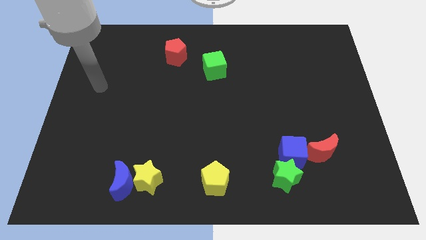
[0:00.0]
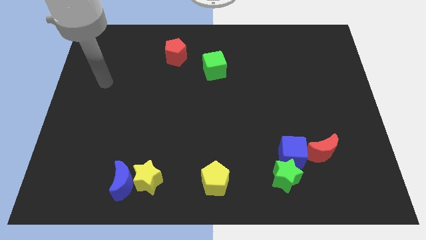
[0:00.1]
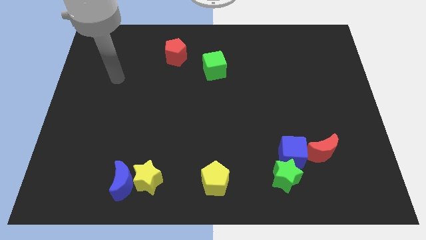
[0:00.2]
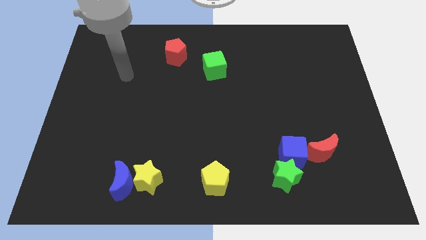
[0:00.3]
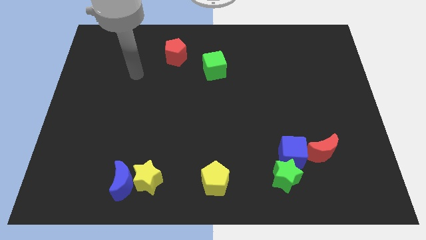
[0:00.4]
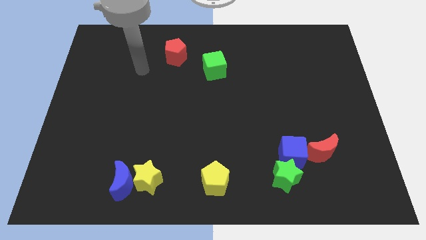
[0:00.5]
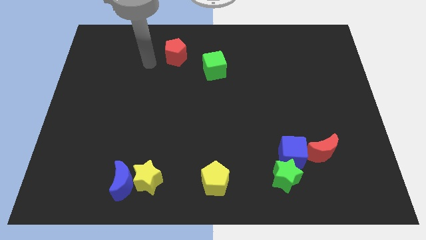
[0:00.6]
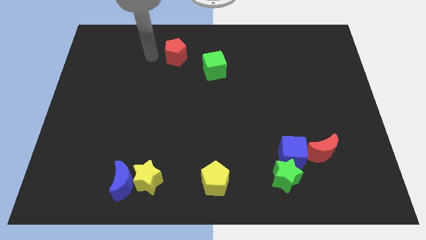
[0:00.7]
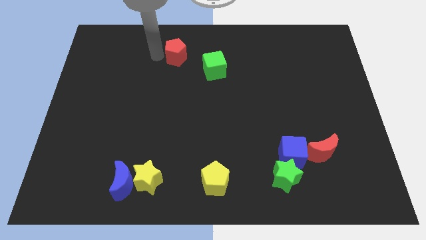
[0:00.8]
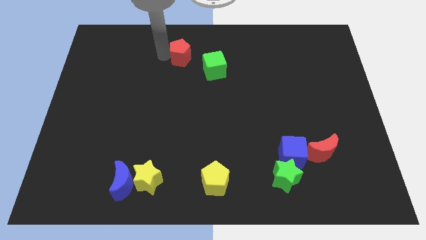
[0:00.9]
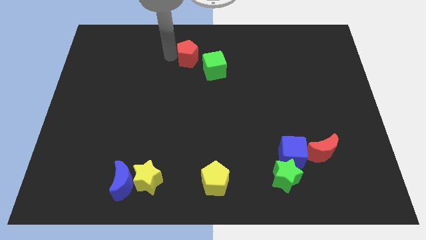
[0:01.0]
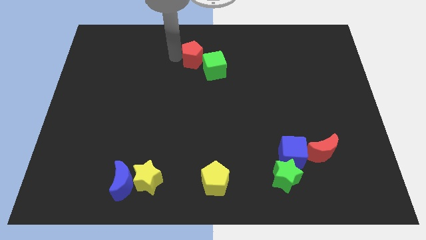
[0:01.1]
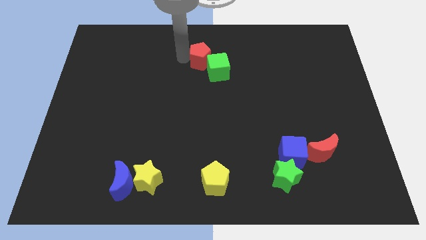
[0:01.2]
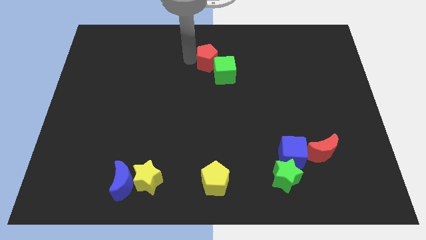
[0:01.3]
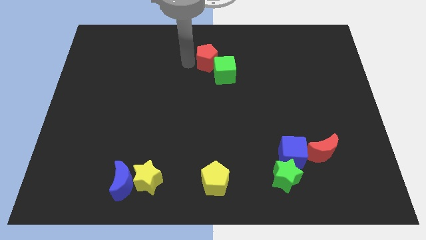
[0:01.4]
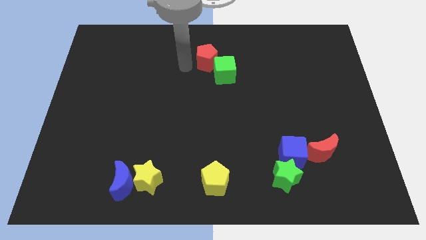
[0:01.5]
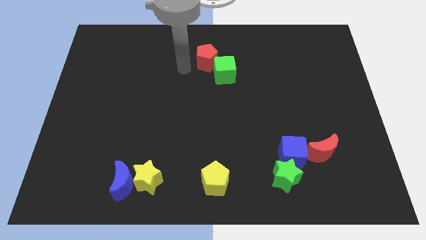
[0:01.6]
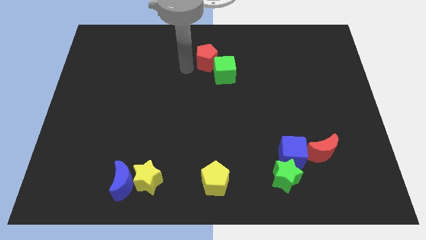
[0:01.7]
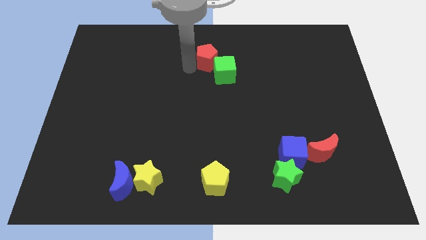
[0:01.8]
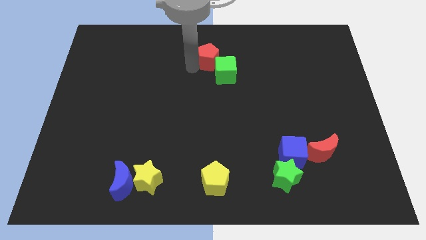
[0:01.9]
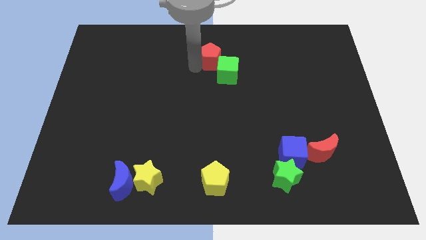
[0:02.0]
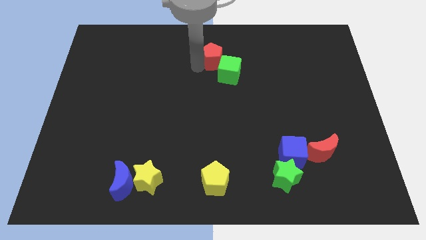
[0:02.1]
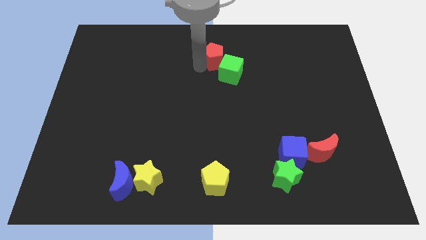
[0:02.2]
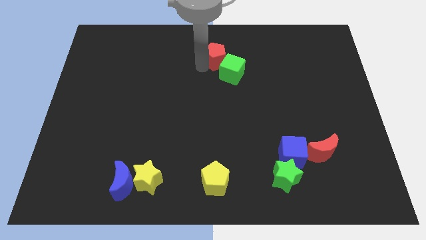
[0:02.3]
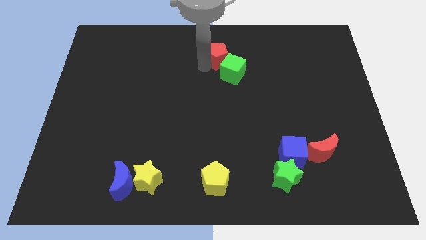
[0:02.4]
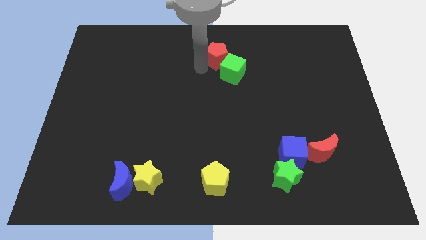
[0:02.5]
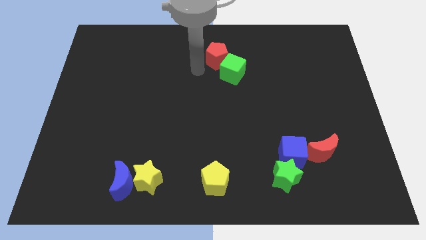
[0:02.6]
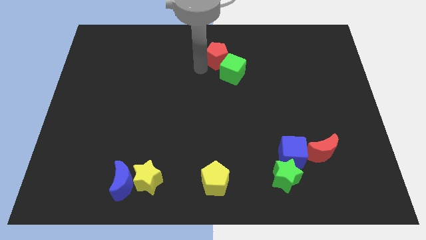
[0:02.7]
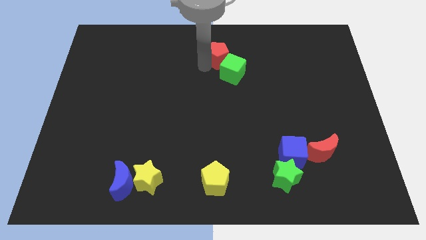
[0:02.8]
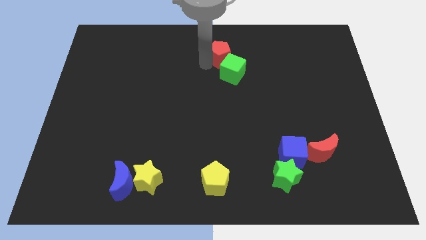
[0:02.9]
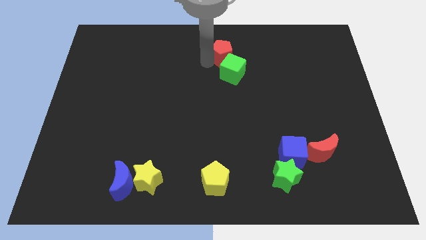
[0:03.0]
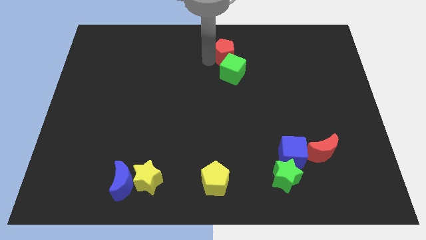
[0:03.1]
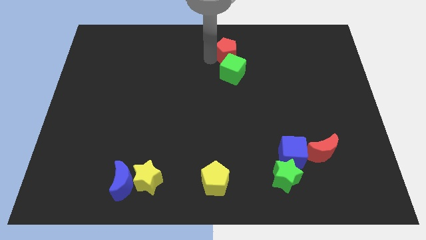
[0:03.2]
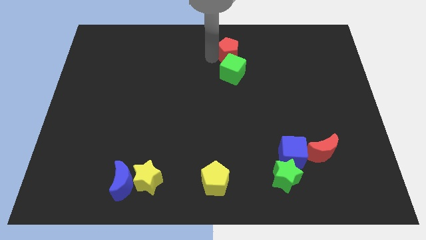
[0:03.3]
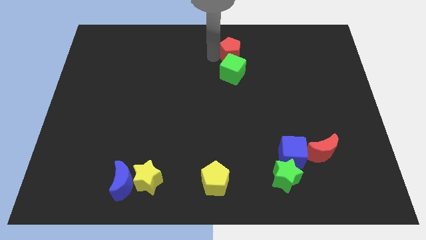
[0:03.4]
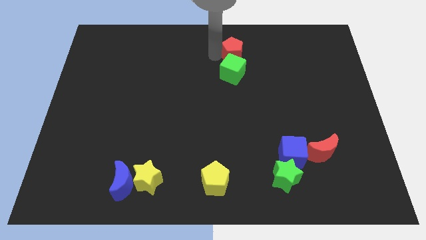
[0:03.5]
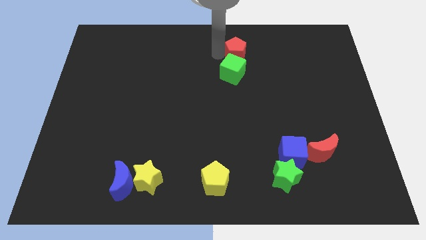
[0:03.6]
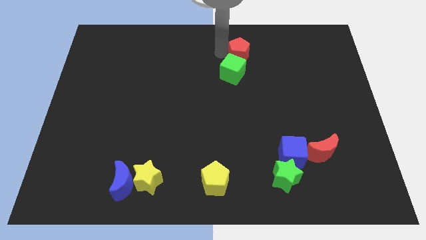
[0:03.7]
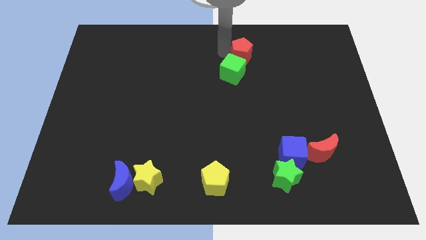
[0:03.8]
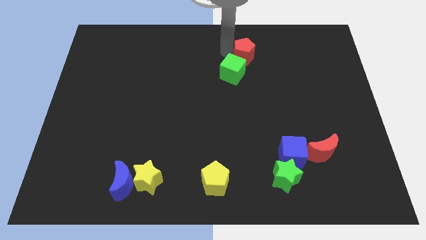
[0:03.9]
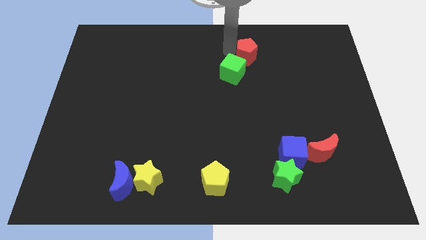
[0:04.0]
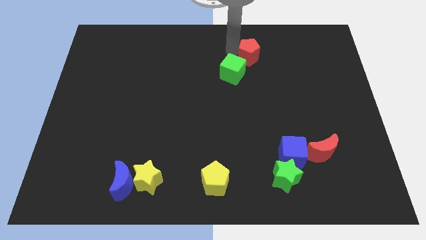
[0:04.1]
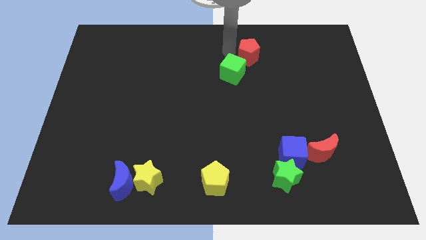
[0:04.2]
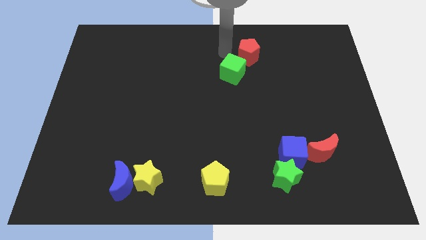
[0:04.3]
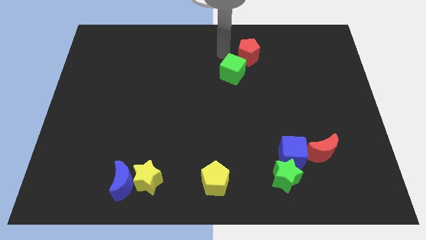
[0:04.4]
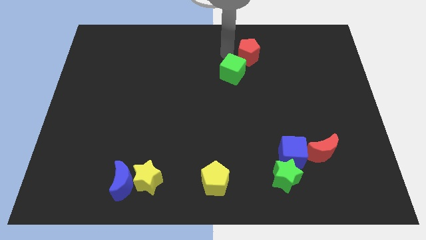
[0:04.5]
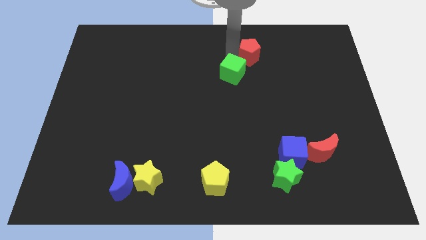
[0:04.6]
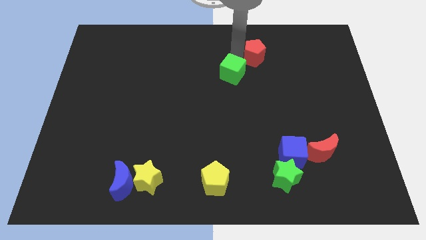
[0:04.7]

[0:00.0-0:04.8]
move the red pentagon to the right

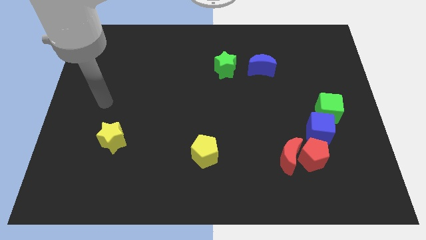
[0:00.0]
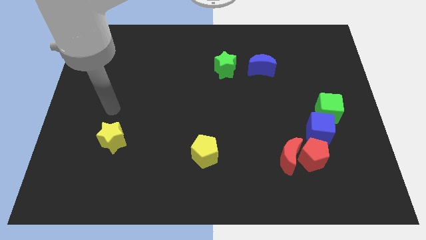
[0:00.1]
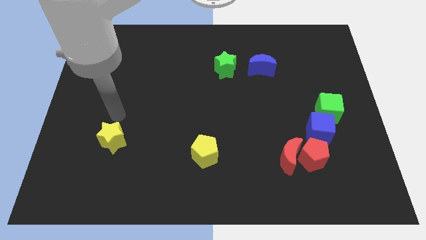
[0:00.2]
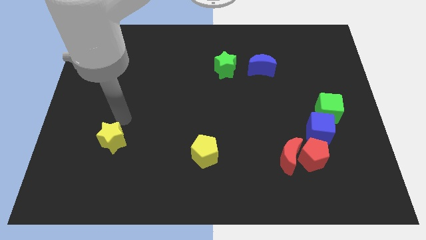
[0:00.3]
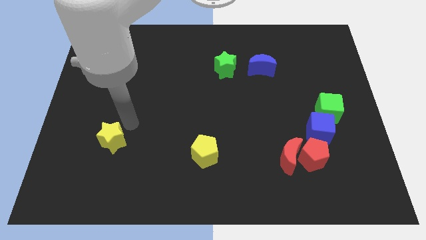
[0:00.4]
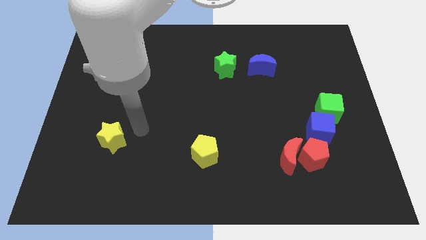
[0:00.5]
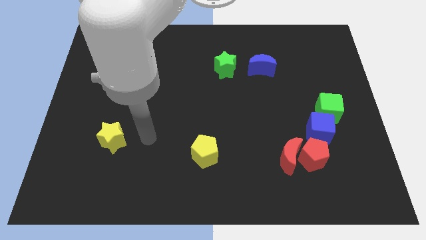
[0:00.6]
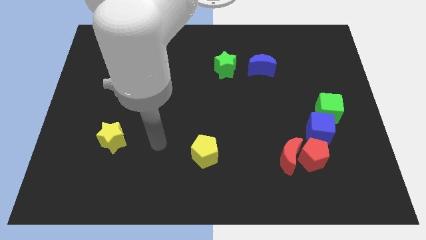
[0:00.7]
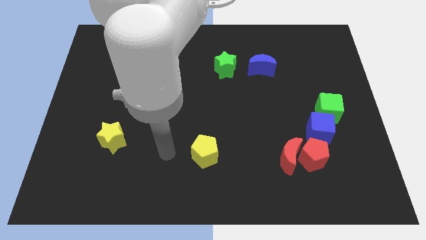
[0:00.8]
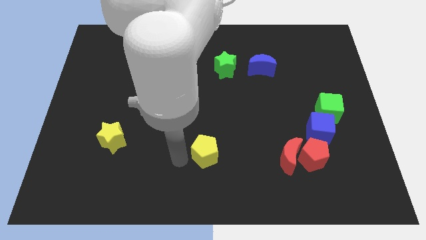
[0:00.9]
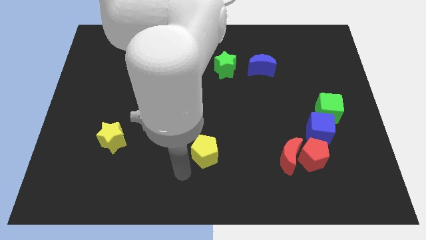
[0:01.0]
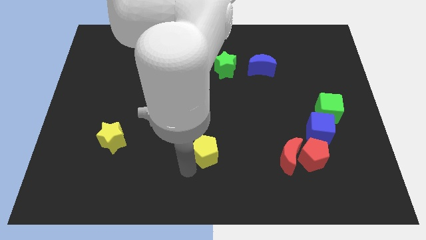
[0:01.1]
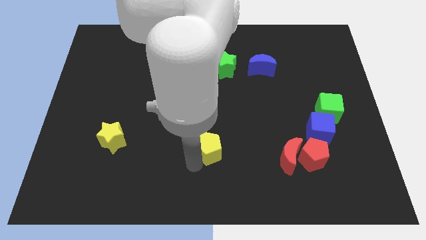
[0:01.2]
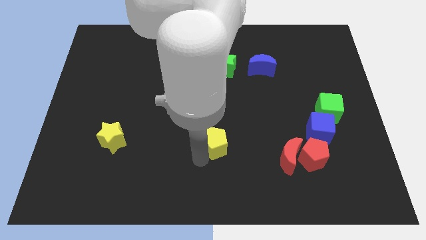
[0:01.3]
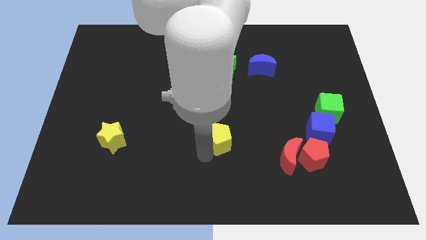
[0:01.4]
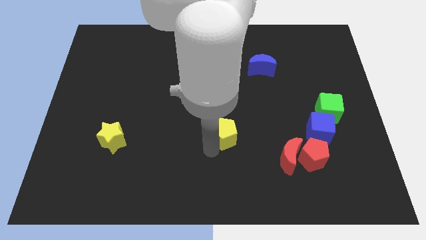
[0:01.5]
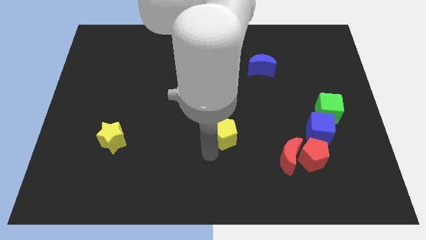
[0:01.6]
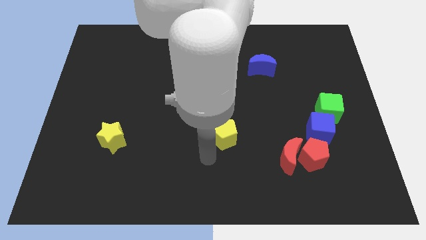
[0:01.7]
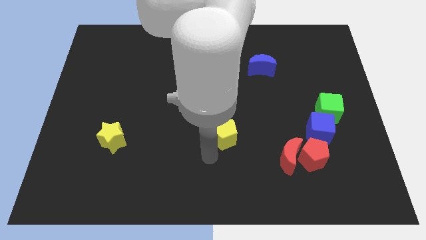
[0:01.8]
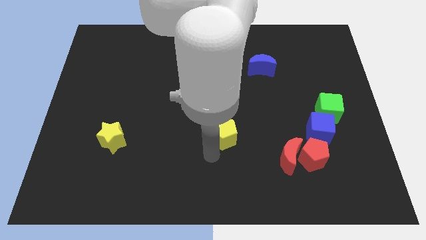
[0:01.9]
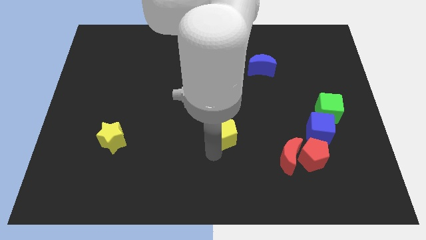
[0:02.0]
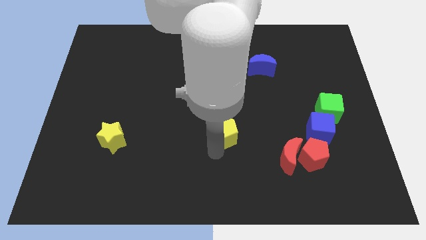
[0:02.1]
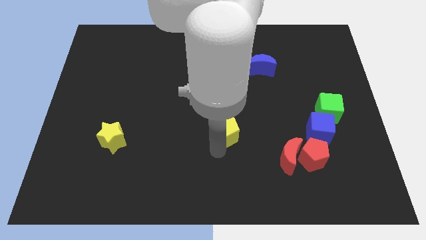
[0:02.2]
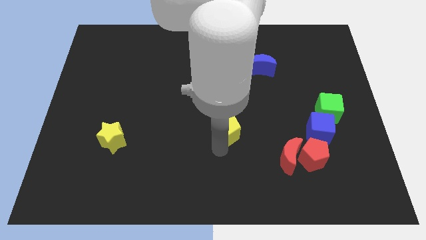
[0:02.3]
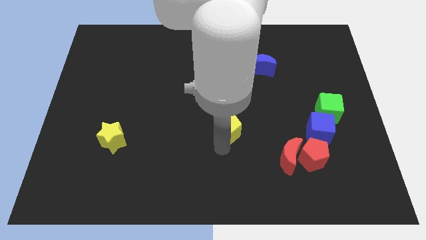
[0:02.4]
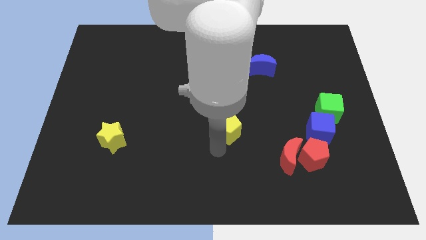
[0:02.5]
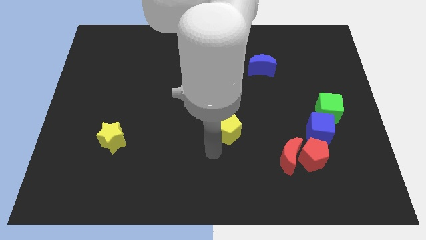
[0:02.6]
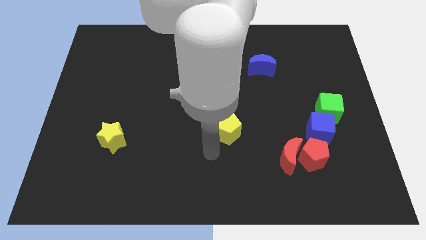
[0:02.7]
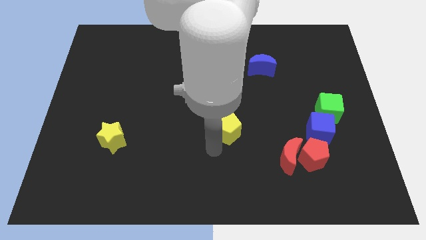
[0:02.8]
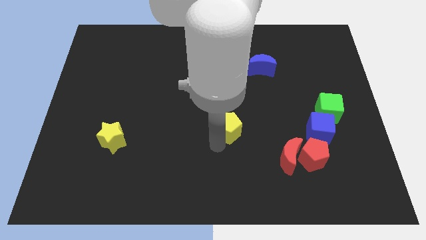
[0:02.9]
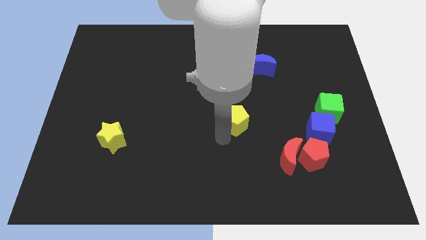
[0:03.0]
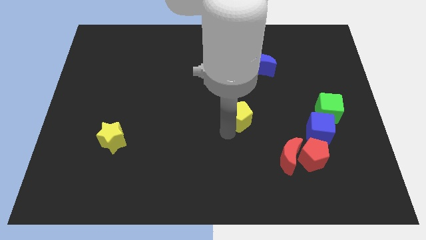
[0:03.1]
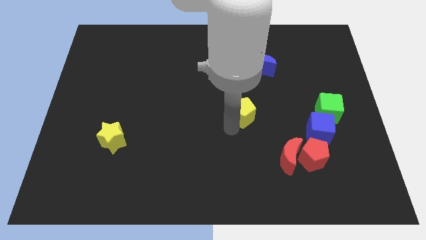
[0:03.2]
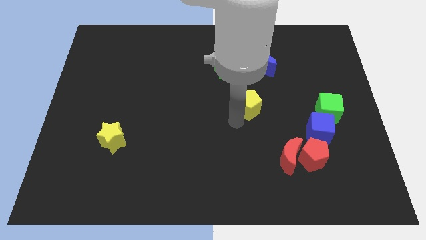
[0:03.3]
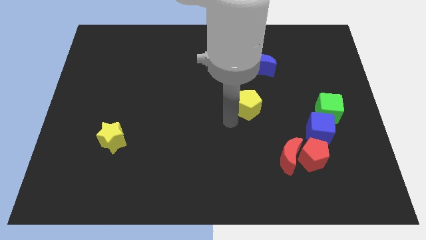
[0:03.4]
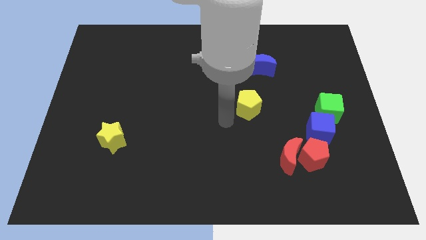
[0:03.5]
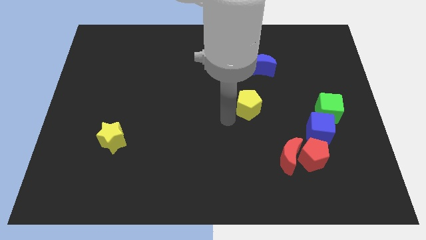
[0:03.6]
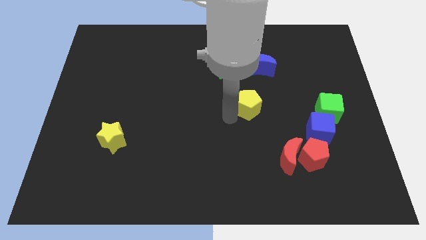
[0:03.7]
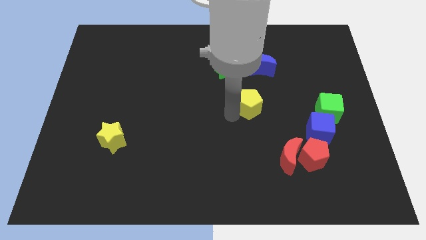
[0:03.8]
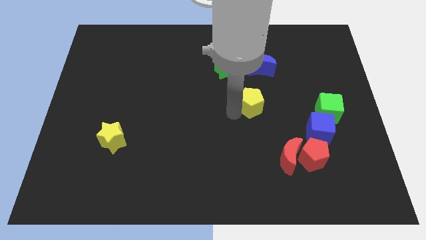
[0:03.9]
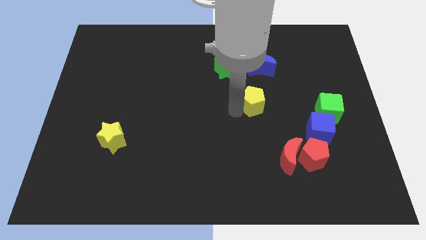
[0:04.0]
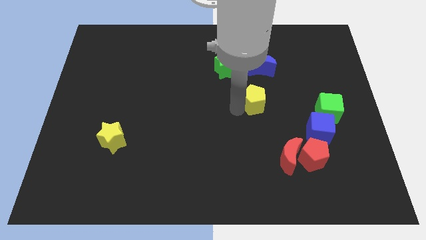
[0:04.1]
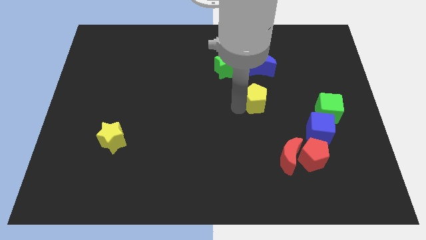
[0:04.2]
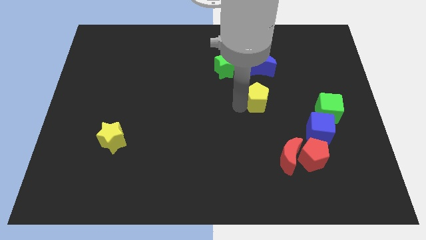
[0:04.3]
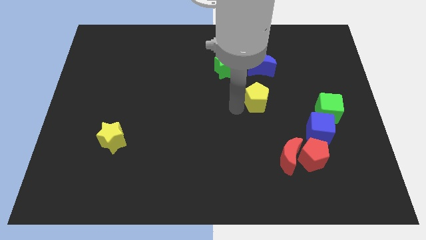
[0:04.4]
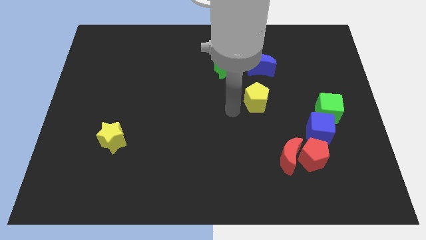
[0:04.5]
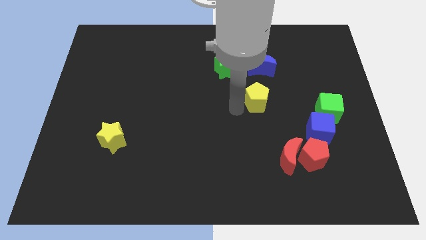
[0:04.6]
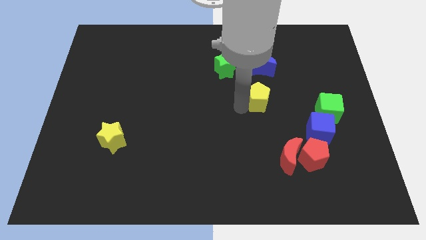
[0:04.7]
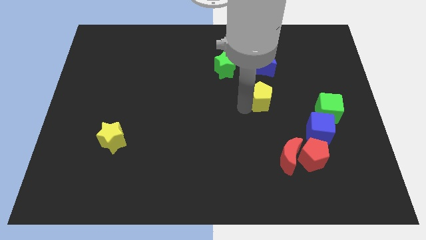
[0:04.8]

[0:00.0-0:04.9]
push the yellow pentagon upwards and to the right diagonally
